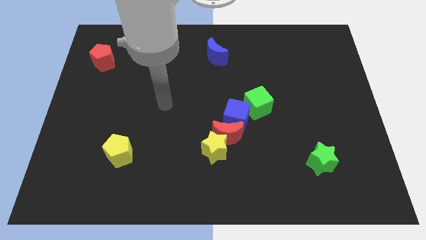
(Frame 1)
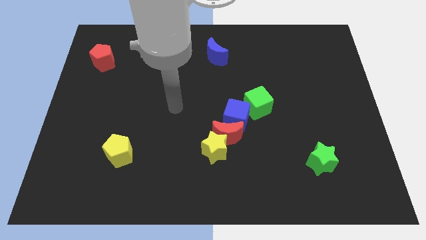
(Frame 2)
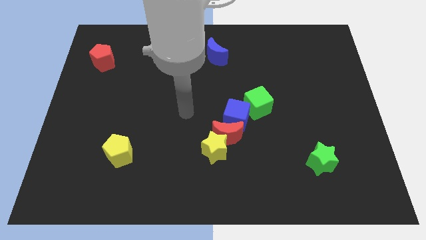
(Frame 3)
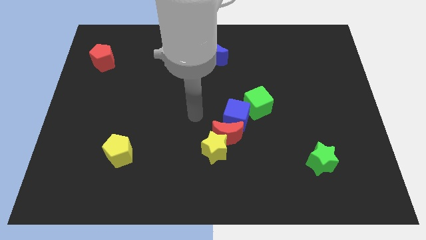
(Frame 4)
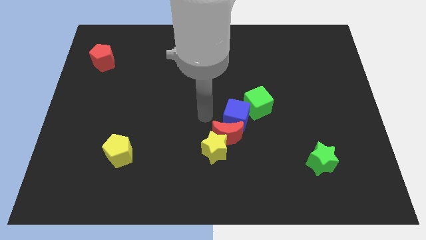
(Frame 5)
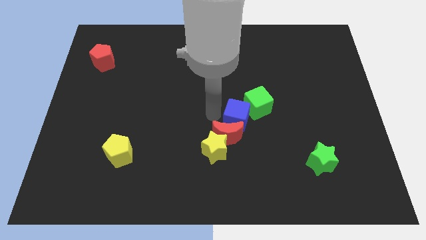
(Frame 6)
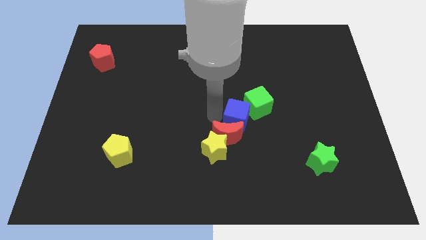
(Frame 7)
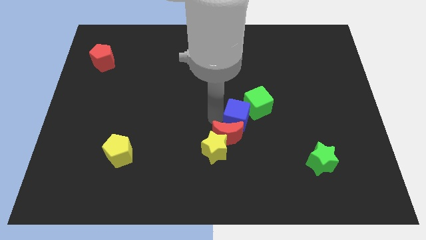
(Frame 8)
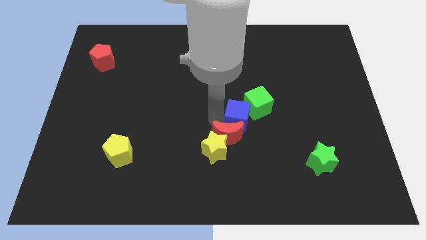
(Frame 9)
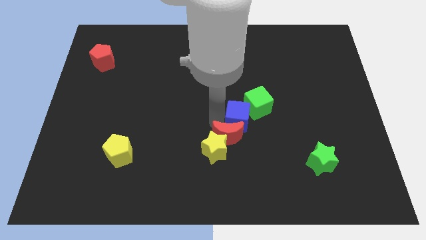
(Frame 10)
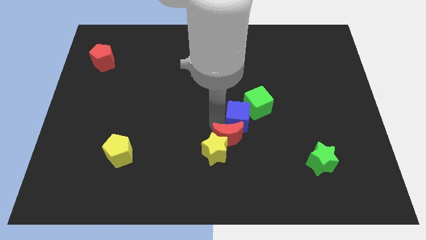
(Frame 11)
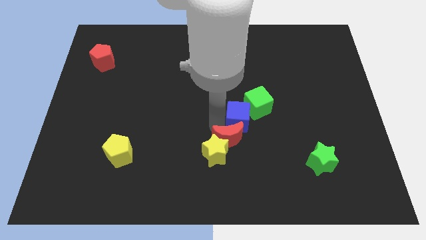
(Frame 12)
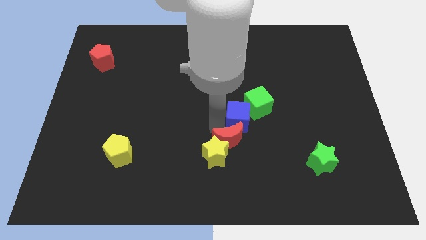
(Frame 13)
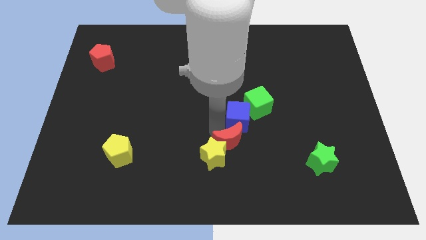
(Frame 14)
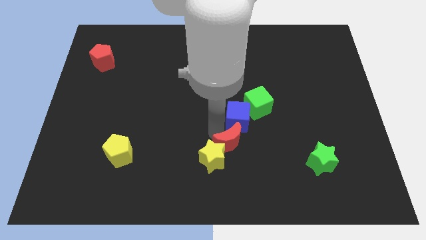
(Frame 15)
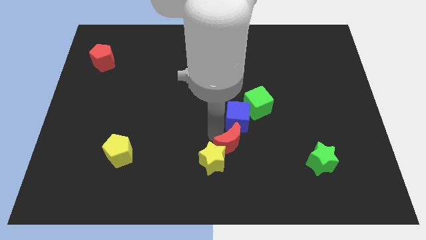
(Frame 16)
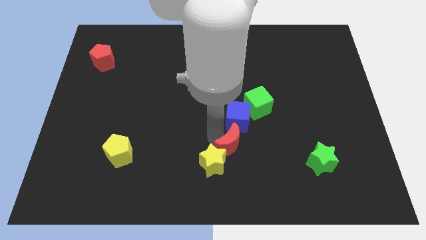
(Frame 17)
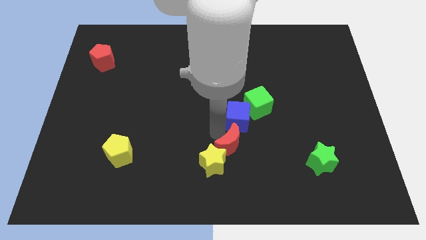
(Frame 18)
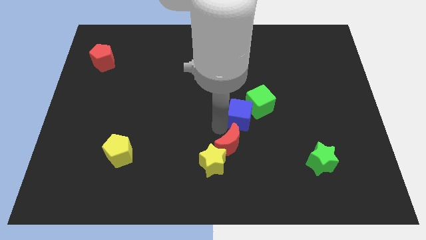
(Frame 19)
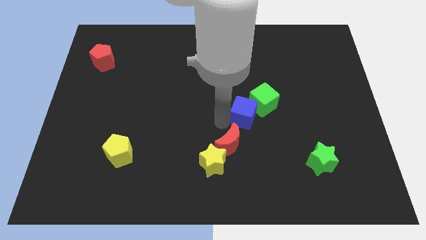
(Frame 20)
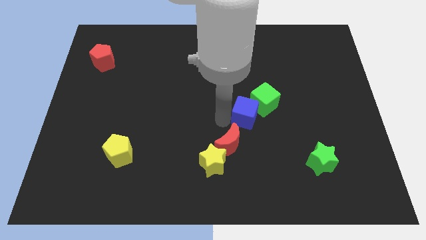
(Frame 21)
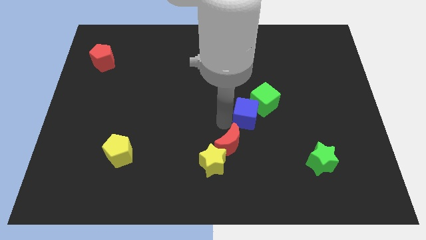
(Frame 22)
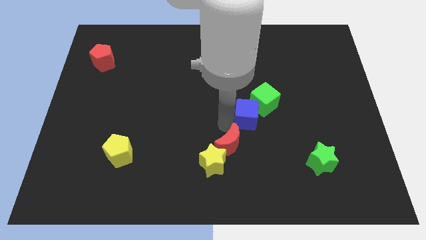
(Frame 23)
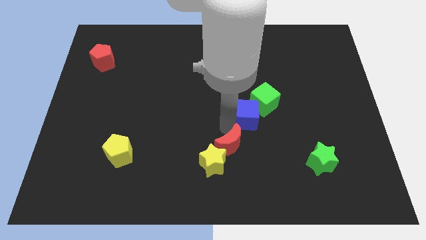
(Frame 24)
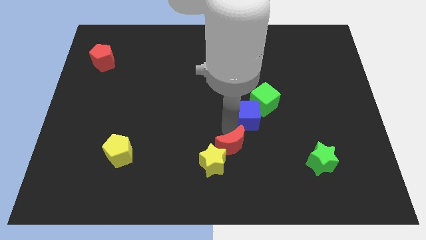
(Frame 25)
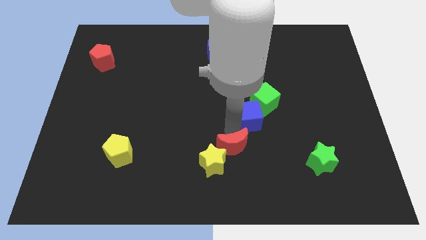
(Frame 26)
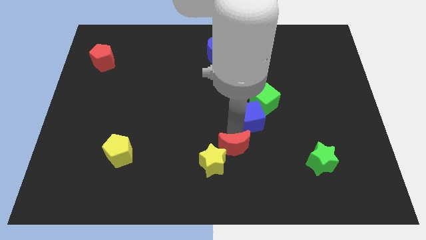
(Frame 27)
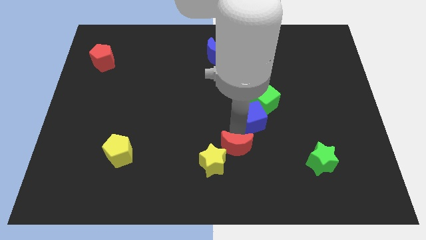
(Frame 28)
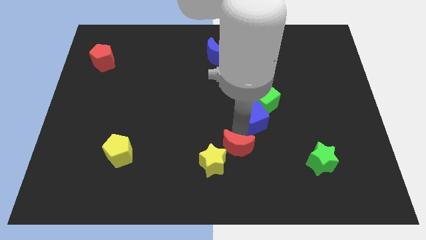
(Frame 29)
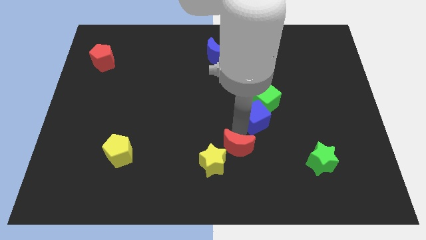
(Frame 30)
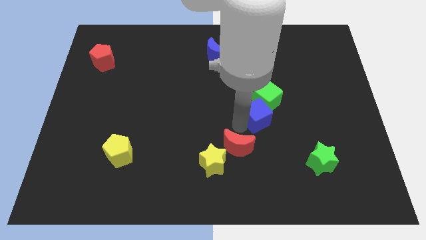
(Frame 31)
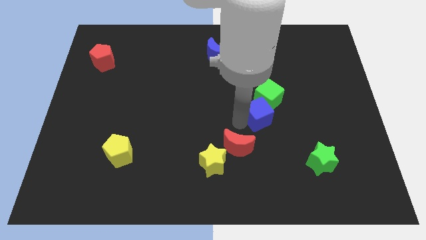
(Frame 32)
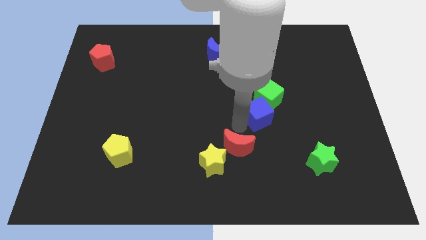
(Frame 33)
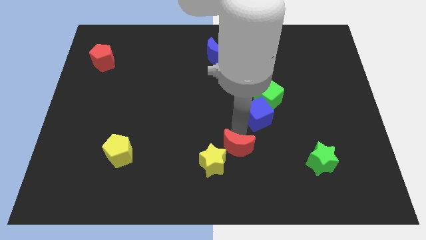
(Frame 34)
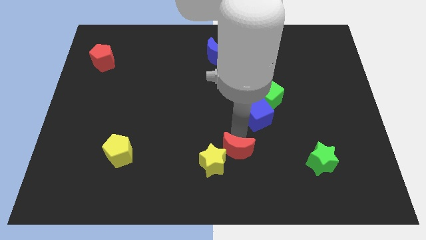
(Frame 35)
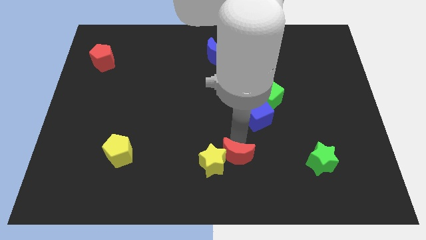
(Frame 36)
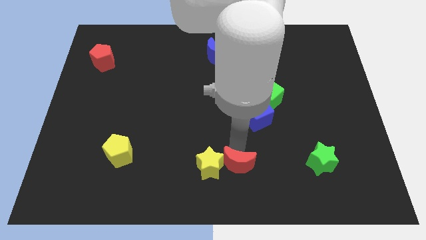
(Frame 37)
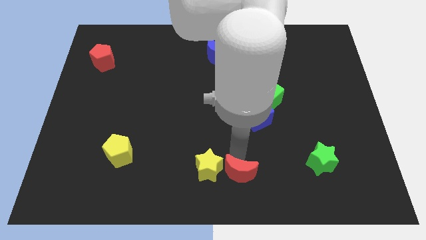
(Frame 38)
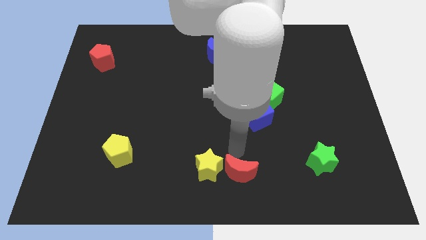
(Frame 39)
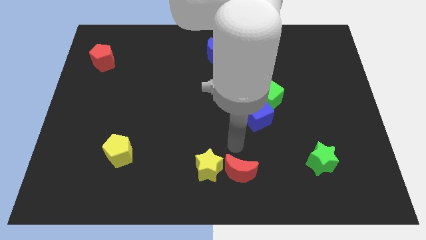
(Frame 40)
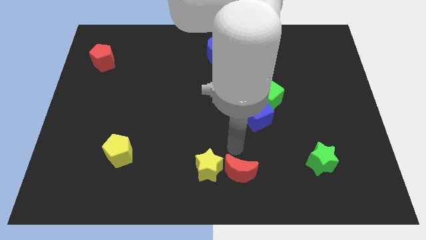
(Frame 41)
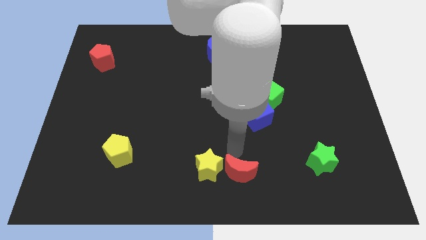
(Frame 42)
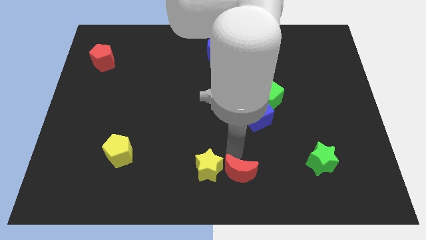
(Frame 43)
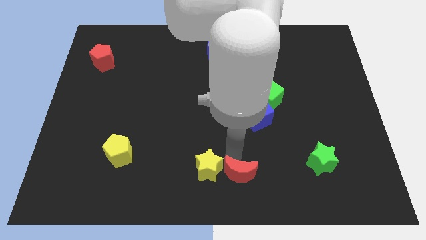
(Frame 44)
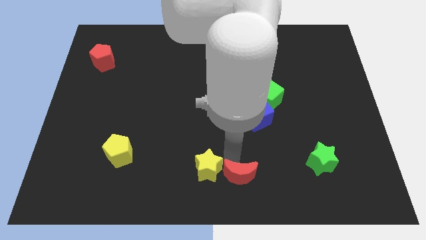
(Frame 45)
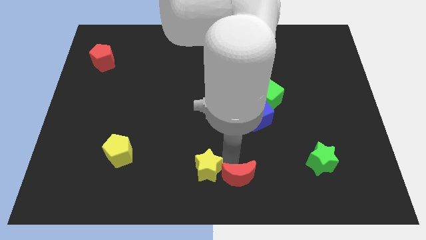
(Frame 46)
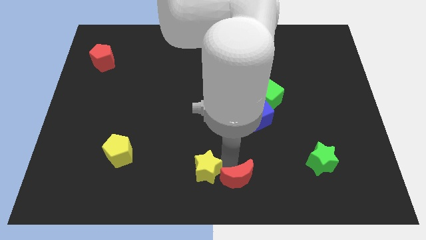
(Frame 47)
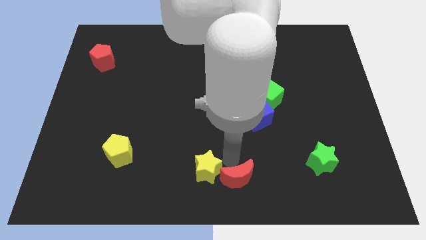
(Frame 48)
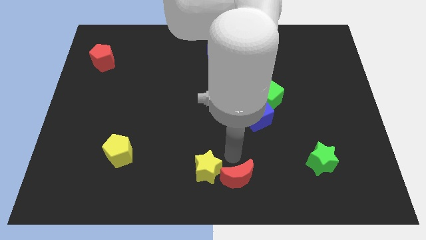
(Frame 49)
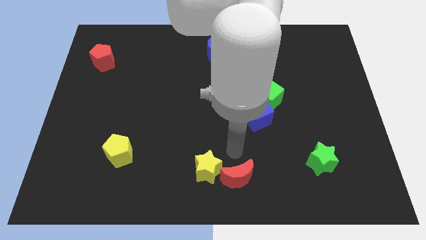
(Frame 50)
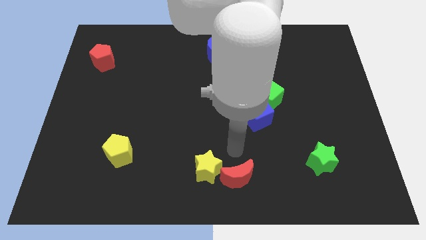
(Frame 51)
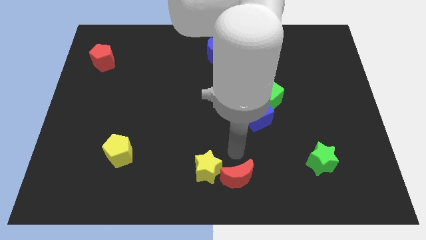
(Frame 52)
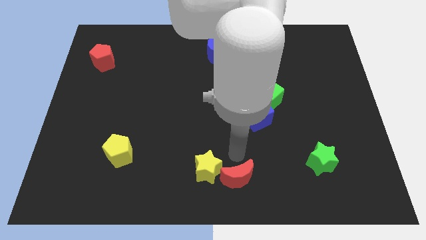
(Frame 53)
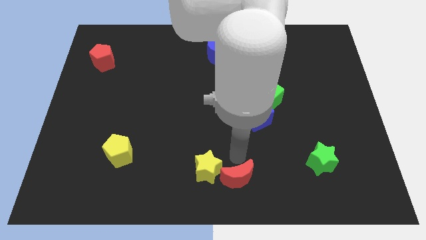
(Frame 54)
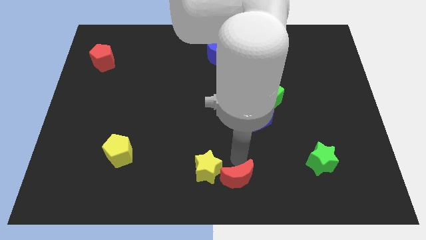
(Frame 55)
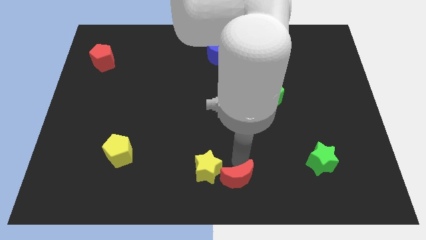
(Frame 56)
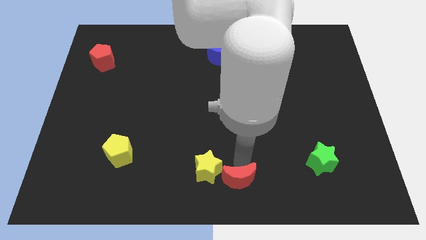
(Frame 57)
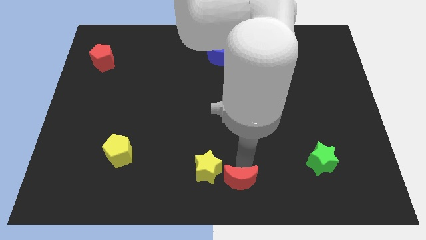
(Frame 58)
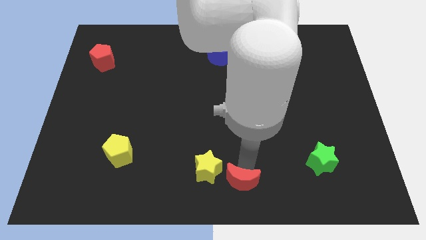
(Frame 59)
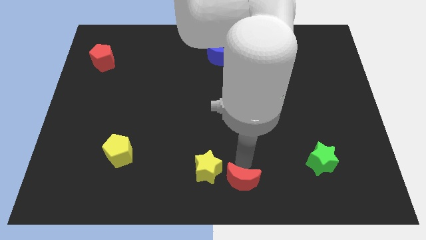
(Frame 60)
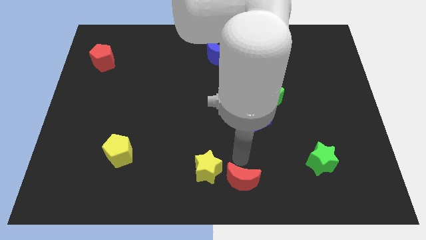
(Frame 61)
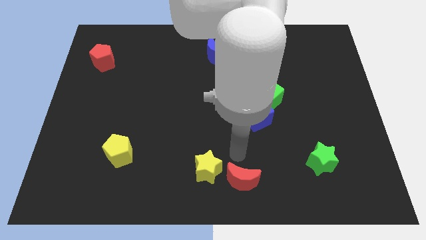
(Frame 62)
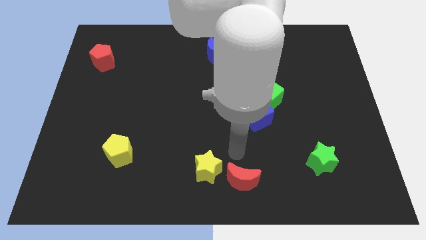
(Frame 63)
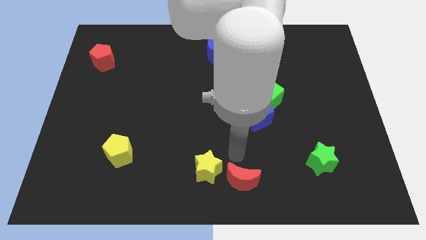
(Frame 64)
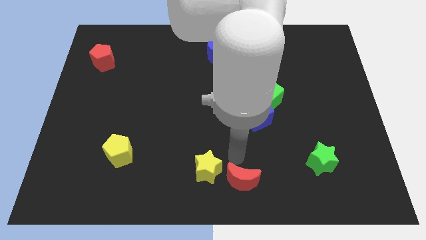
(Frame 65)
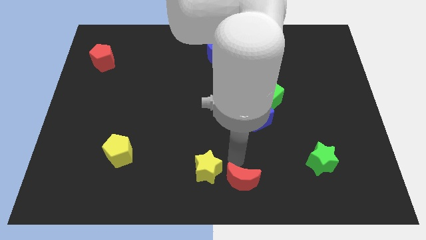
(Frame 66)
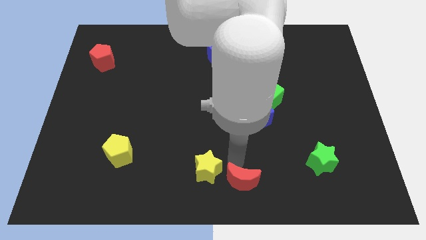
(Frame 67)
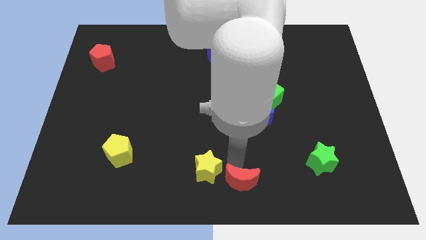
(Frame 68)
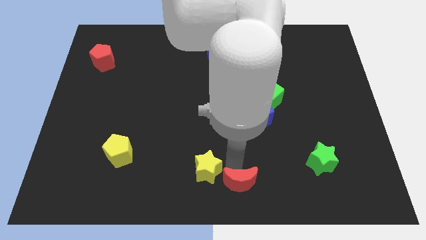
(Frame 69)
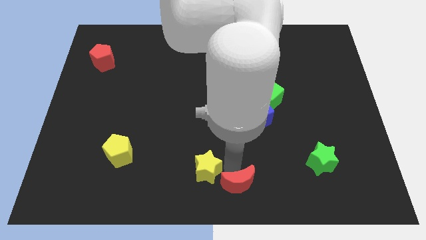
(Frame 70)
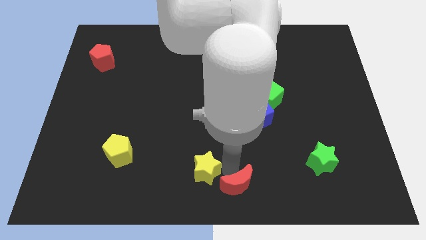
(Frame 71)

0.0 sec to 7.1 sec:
separate the red moon from the yellow star and blue cube

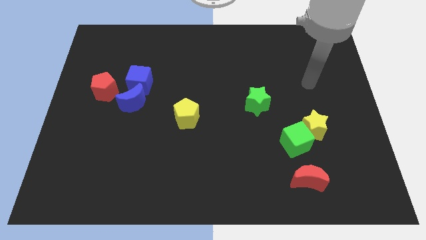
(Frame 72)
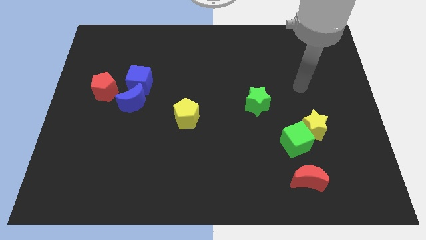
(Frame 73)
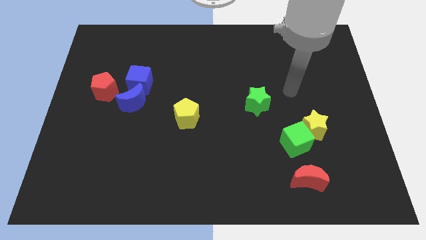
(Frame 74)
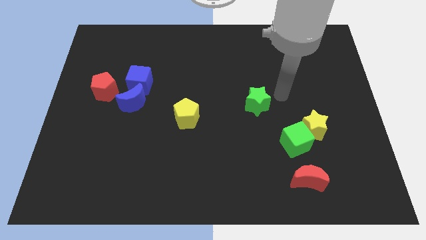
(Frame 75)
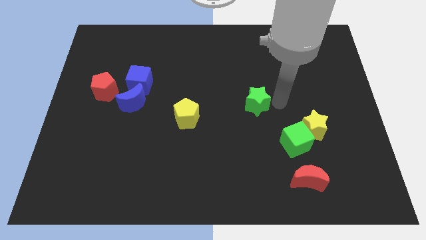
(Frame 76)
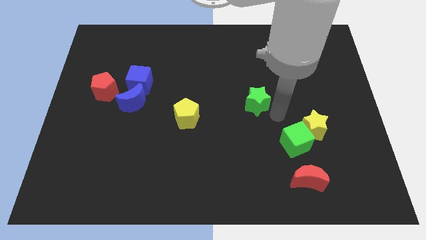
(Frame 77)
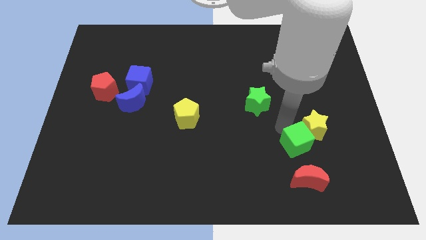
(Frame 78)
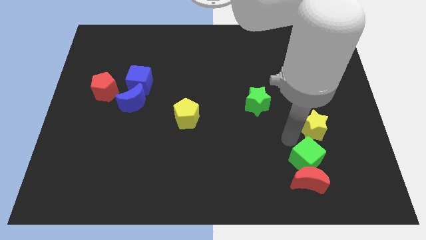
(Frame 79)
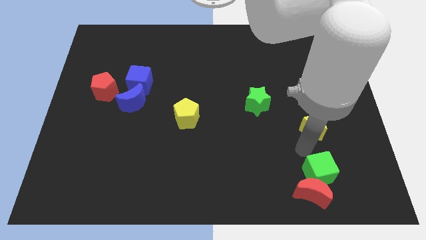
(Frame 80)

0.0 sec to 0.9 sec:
move the yellow star away from the green cube

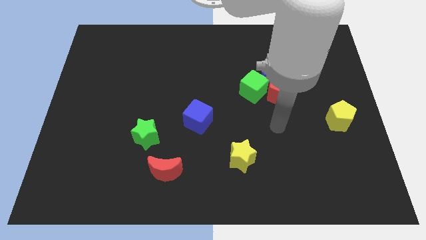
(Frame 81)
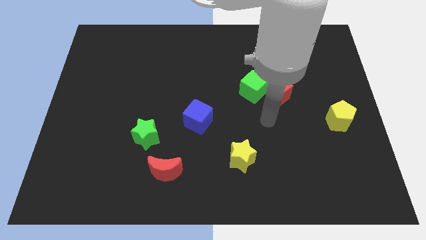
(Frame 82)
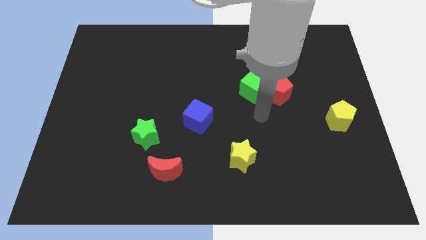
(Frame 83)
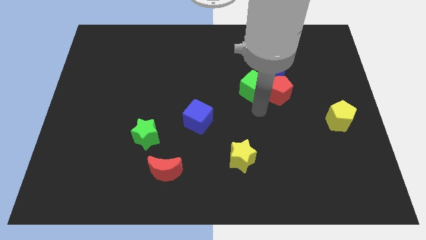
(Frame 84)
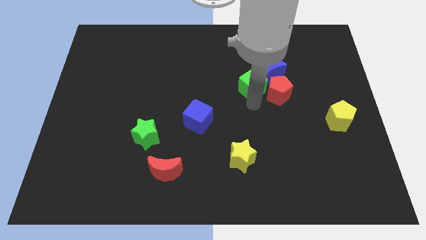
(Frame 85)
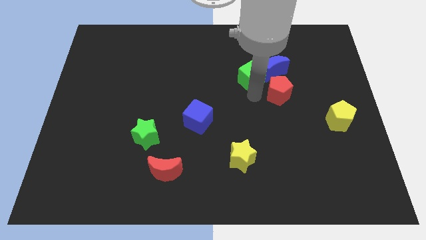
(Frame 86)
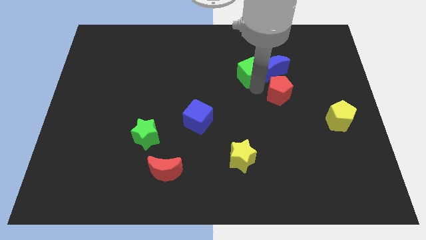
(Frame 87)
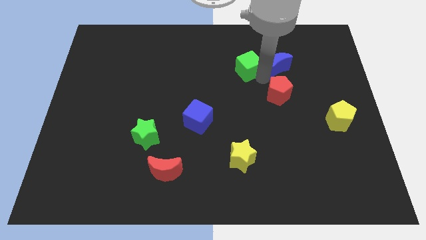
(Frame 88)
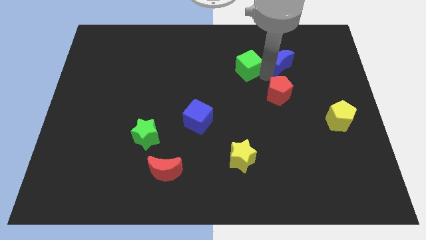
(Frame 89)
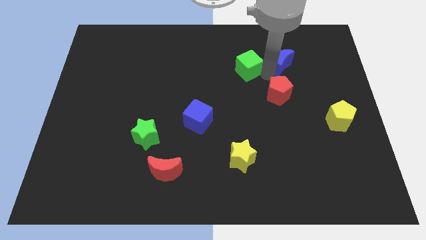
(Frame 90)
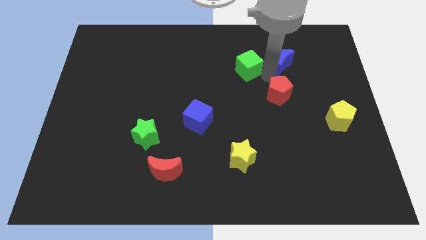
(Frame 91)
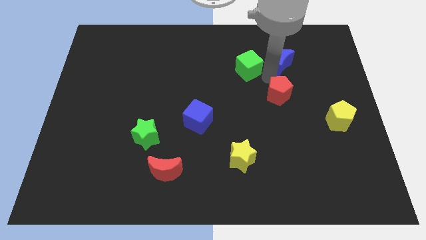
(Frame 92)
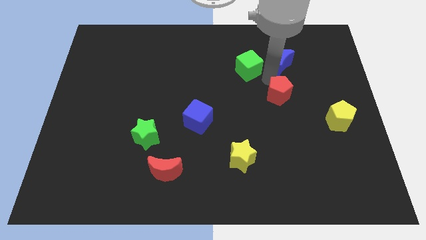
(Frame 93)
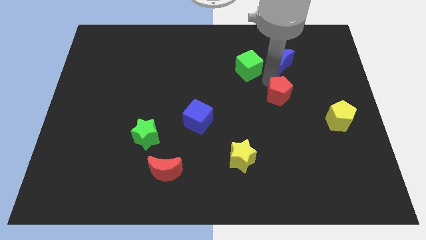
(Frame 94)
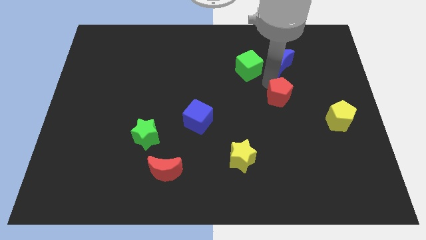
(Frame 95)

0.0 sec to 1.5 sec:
pull the red pentagon apart from the green cube and blue moon
